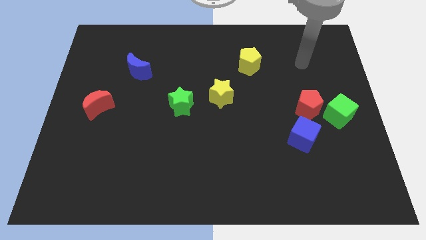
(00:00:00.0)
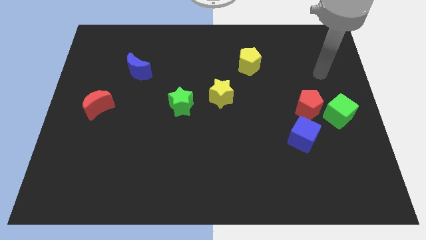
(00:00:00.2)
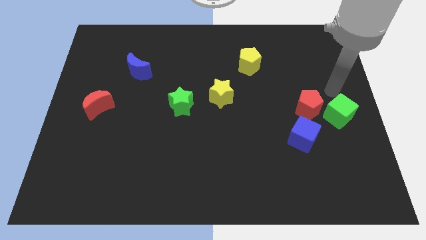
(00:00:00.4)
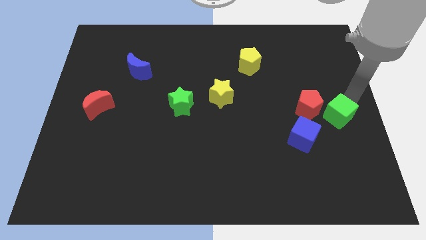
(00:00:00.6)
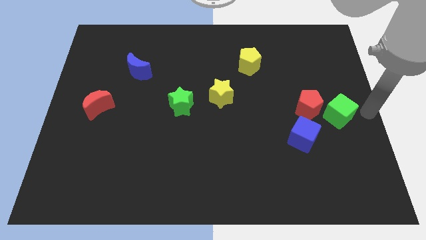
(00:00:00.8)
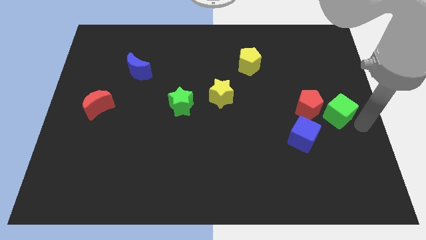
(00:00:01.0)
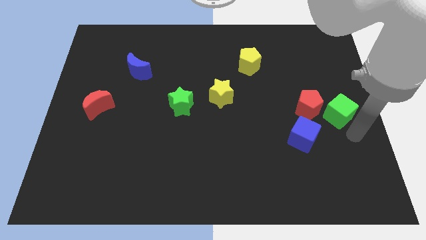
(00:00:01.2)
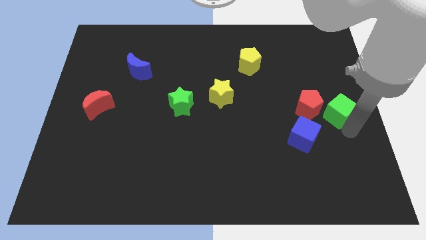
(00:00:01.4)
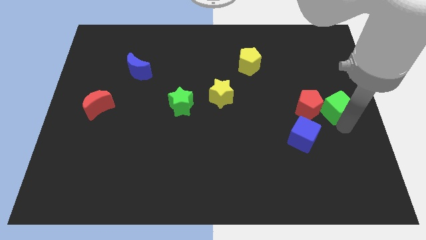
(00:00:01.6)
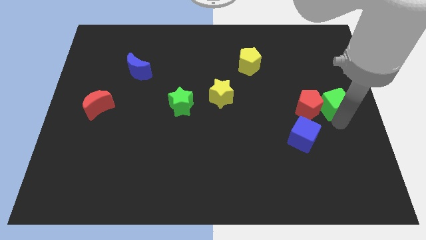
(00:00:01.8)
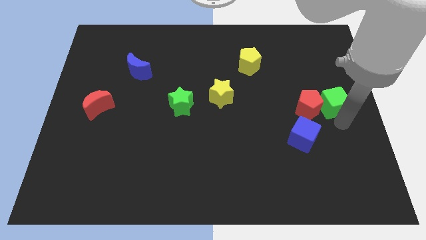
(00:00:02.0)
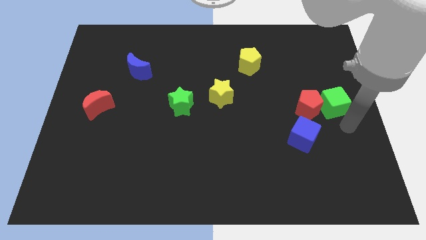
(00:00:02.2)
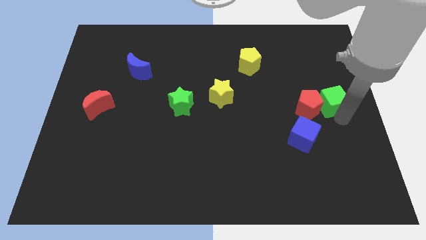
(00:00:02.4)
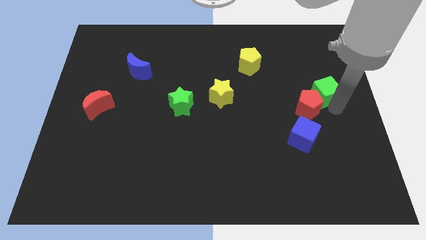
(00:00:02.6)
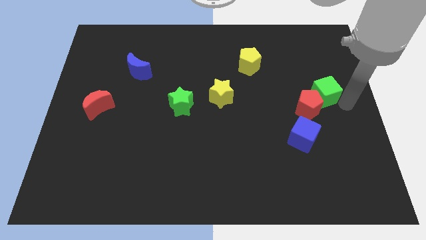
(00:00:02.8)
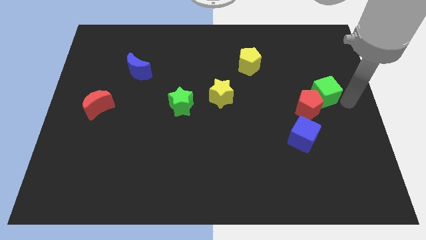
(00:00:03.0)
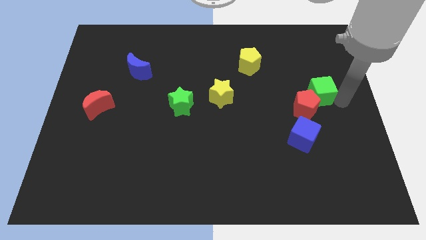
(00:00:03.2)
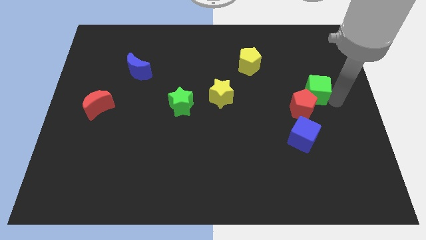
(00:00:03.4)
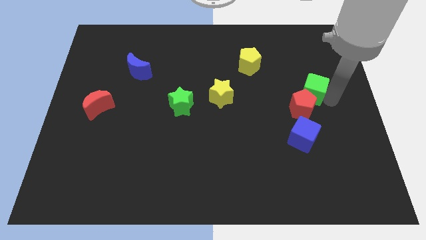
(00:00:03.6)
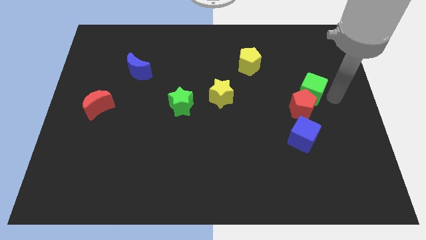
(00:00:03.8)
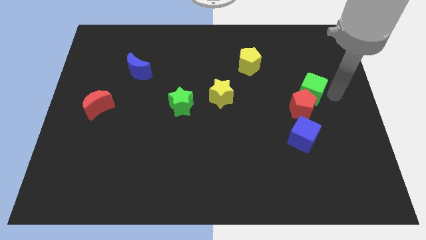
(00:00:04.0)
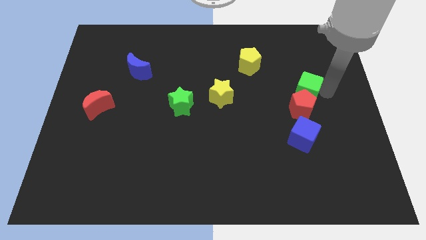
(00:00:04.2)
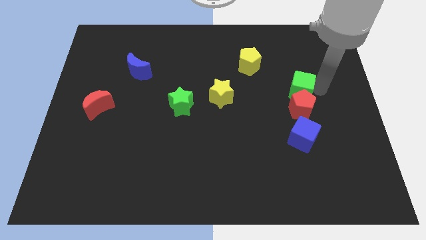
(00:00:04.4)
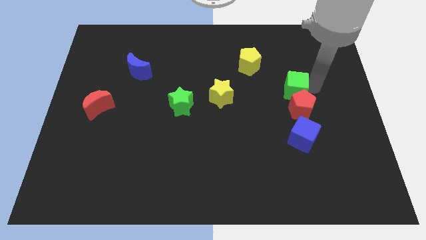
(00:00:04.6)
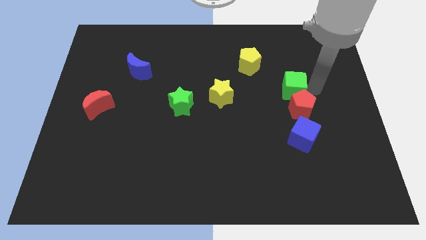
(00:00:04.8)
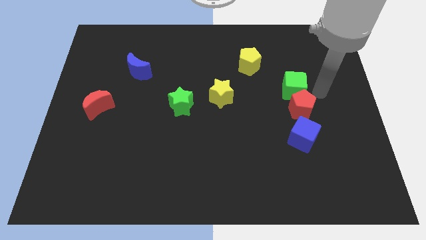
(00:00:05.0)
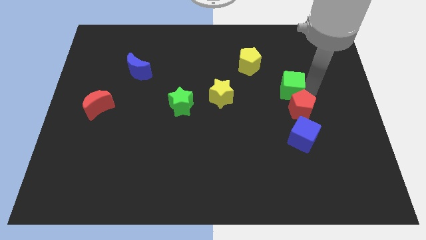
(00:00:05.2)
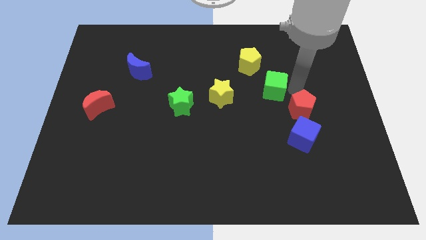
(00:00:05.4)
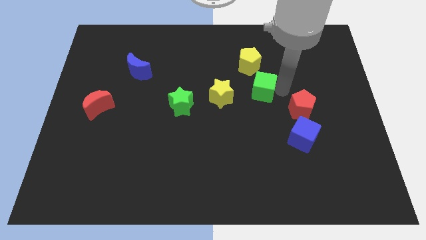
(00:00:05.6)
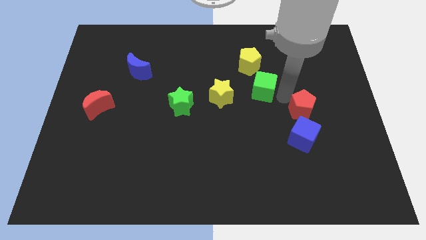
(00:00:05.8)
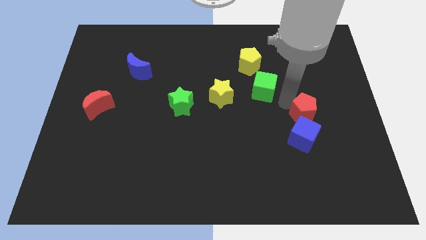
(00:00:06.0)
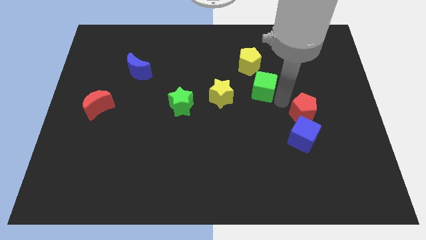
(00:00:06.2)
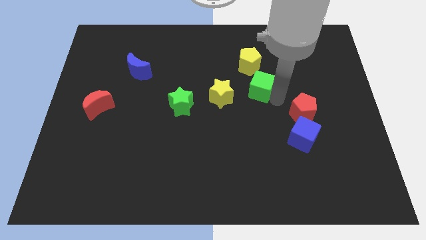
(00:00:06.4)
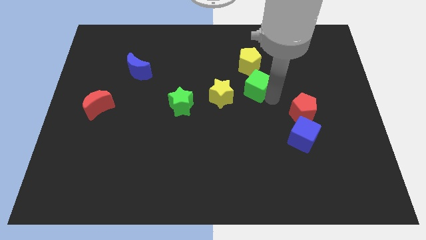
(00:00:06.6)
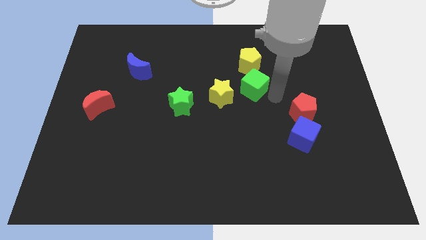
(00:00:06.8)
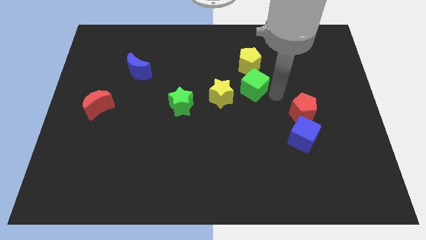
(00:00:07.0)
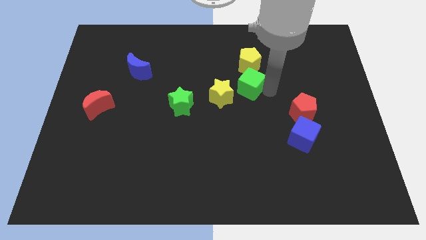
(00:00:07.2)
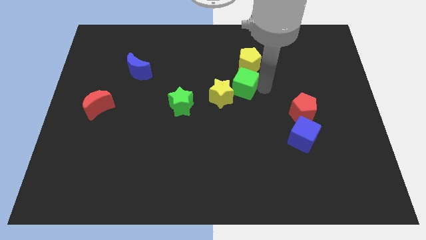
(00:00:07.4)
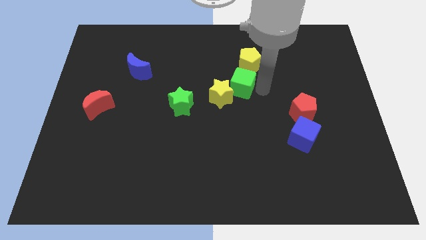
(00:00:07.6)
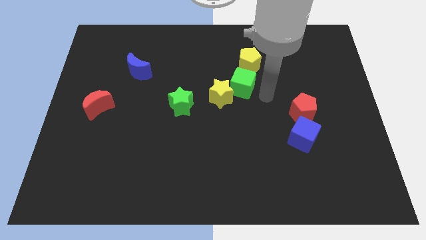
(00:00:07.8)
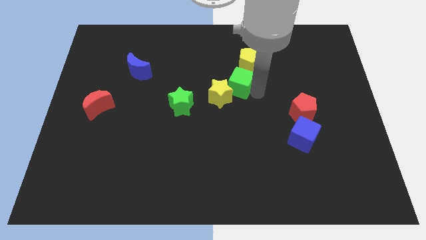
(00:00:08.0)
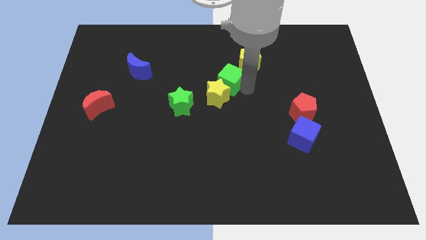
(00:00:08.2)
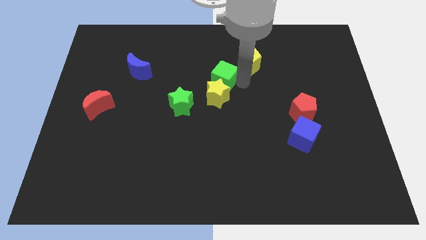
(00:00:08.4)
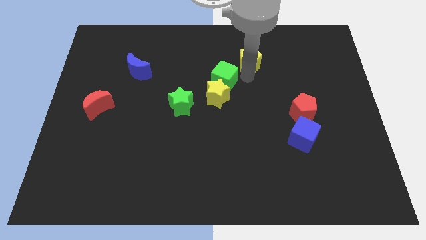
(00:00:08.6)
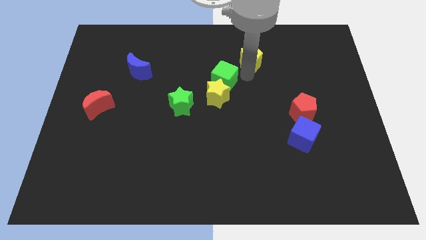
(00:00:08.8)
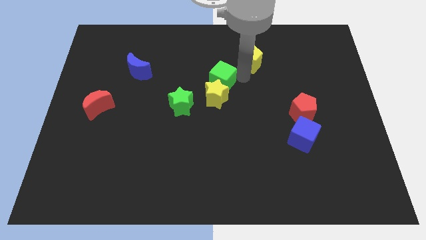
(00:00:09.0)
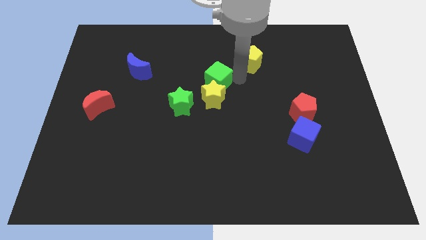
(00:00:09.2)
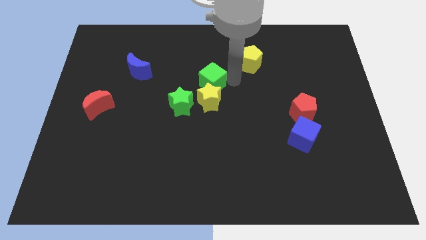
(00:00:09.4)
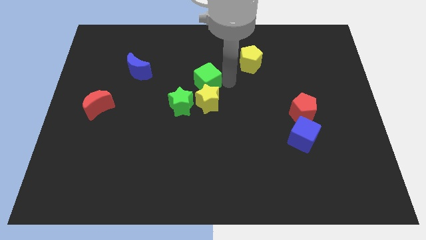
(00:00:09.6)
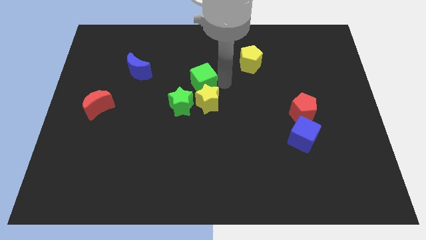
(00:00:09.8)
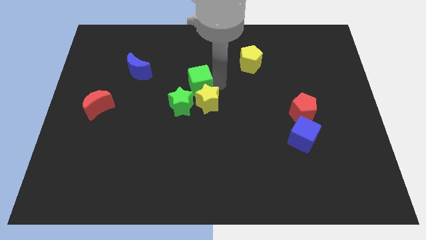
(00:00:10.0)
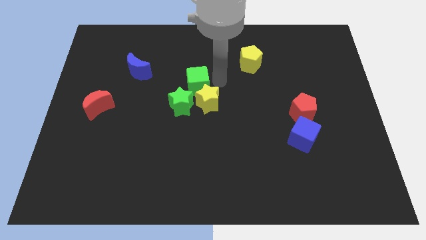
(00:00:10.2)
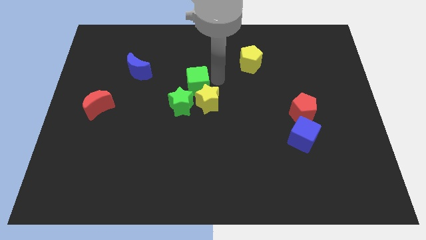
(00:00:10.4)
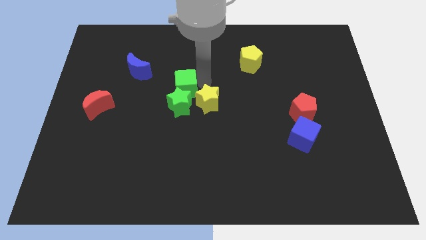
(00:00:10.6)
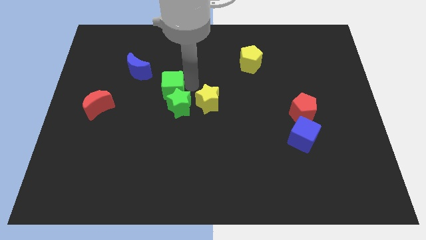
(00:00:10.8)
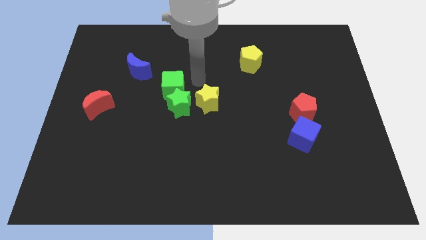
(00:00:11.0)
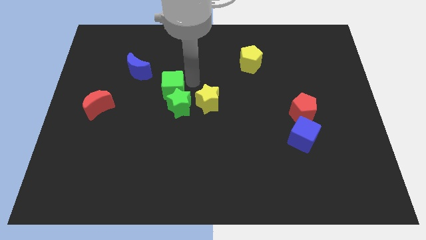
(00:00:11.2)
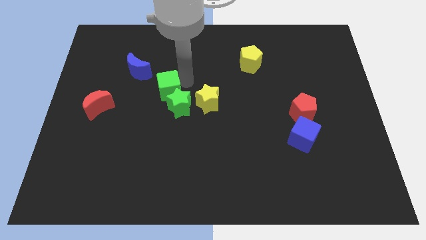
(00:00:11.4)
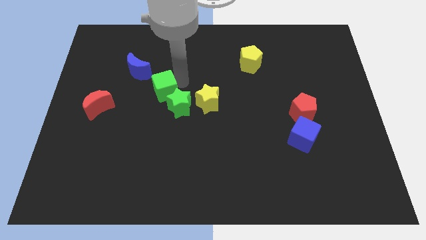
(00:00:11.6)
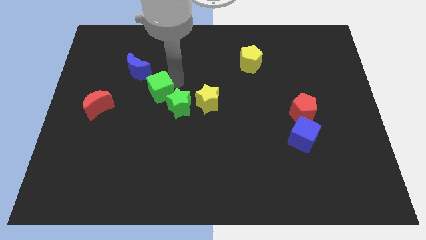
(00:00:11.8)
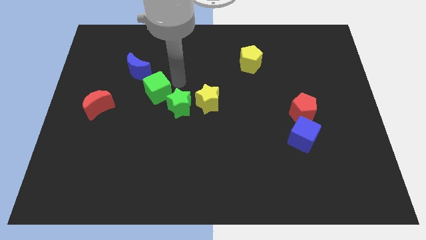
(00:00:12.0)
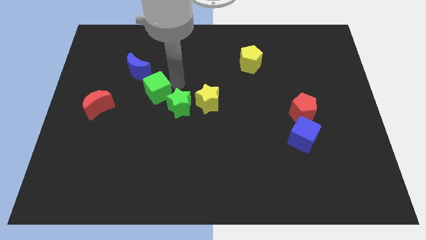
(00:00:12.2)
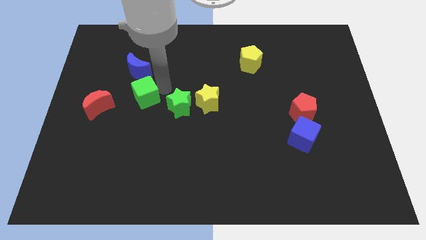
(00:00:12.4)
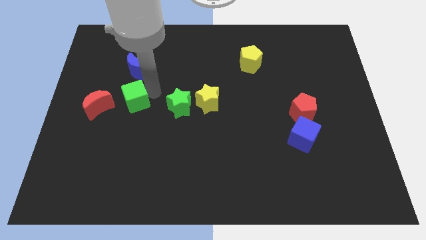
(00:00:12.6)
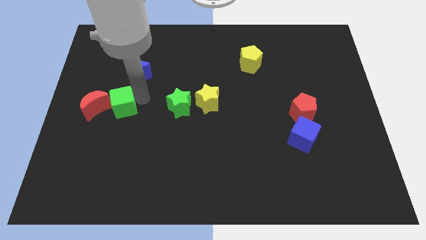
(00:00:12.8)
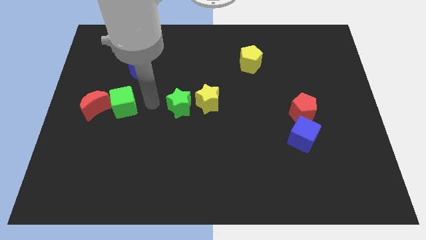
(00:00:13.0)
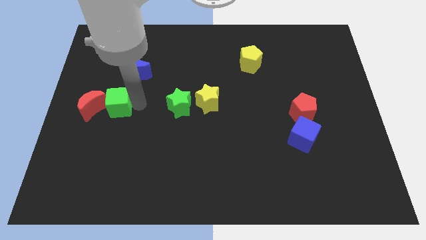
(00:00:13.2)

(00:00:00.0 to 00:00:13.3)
slide the green cube to the red moon
